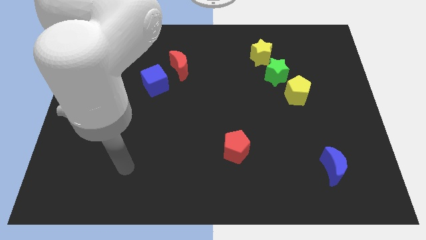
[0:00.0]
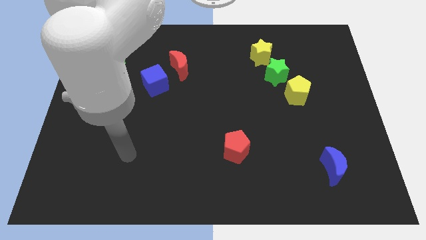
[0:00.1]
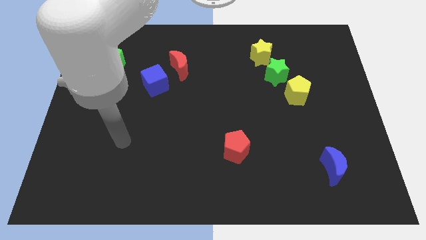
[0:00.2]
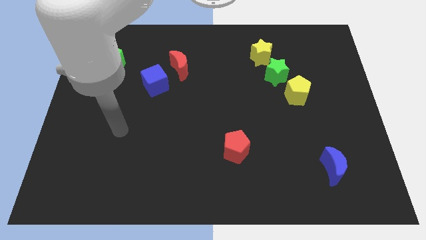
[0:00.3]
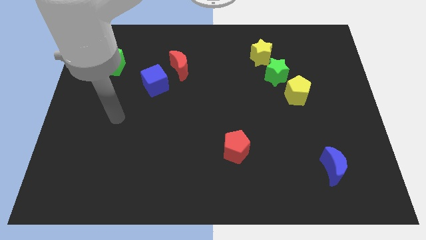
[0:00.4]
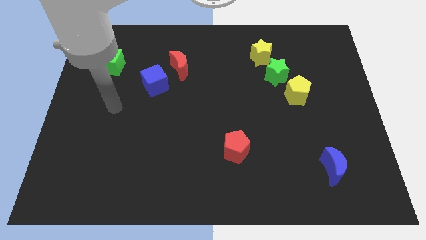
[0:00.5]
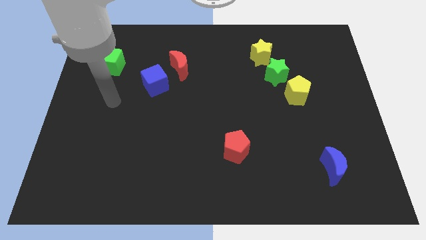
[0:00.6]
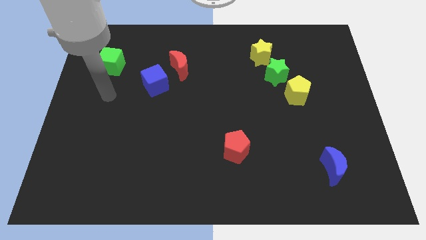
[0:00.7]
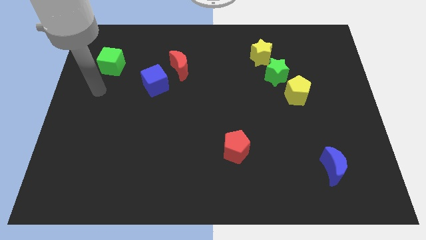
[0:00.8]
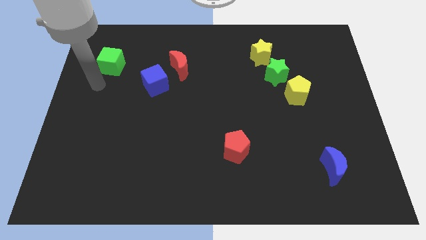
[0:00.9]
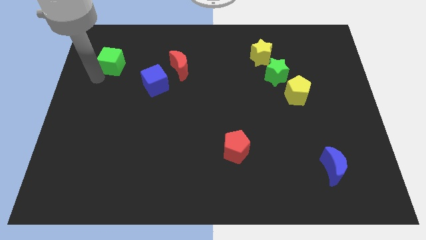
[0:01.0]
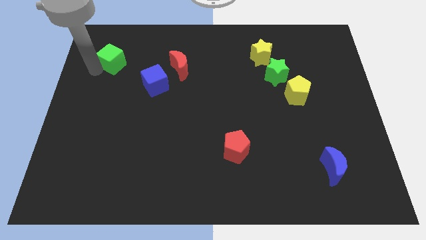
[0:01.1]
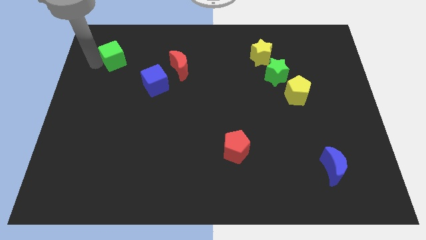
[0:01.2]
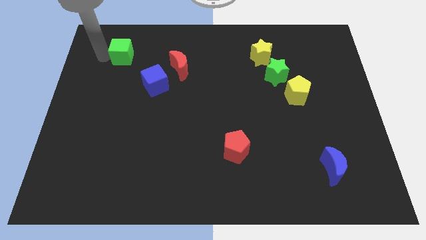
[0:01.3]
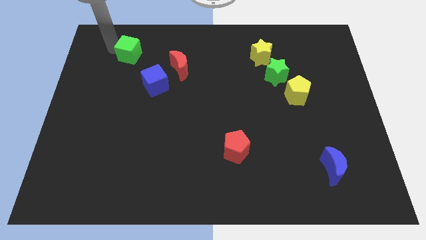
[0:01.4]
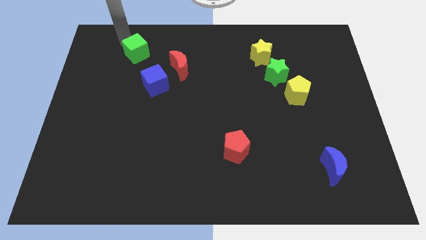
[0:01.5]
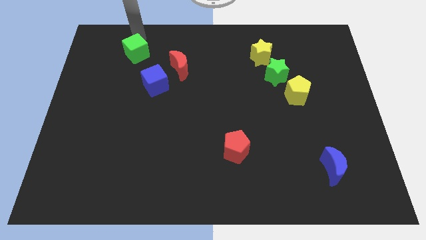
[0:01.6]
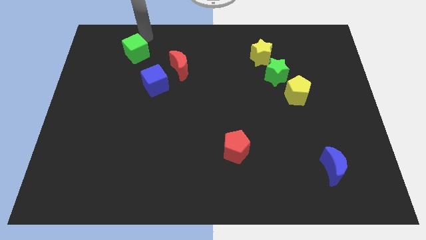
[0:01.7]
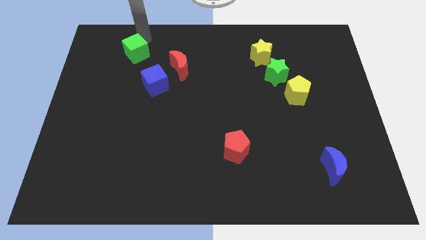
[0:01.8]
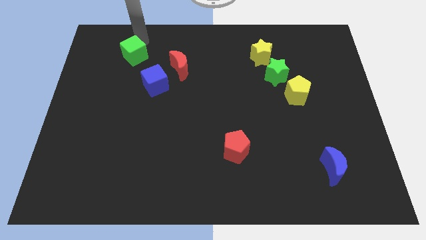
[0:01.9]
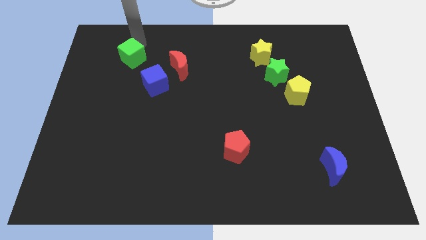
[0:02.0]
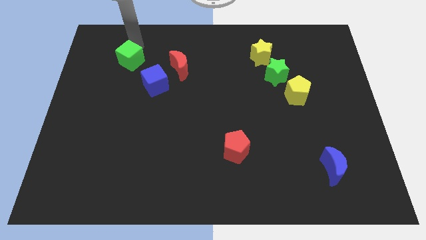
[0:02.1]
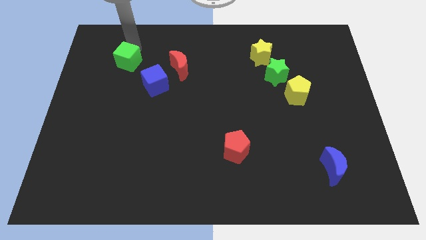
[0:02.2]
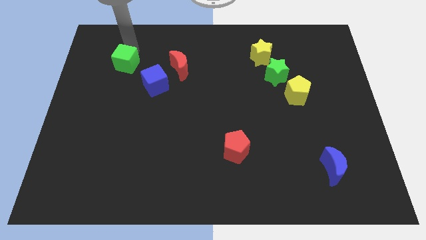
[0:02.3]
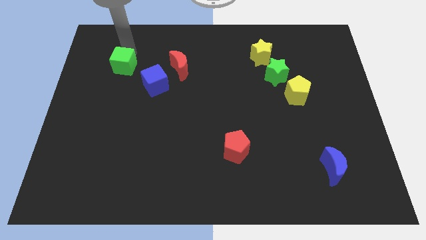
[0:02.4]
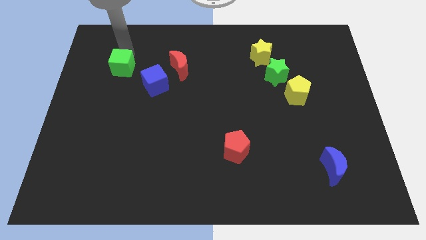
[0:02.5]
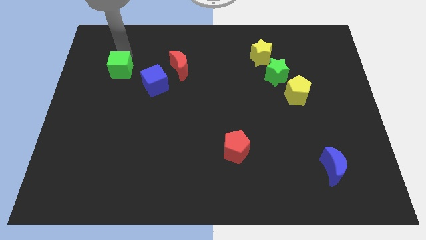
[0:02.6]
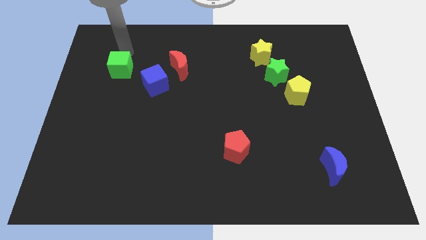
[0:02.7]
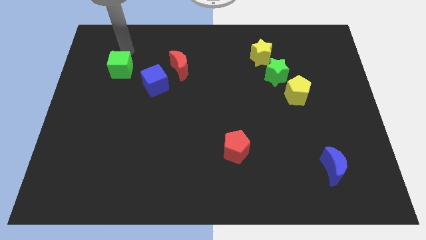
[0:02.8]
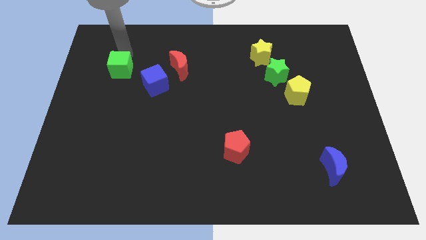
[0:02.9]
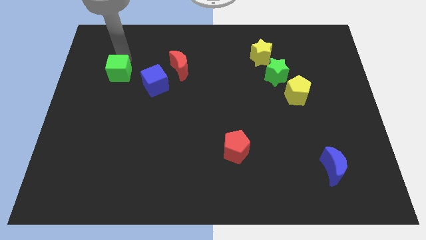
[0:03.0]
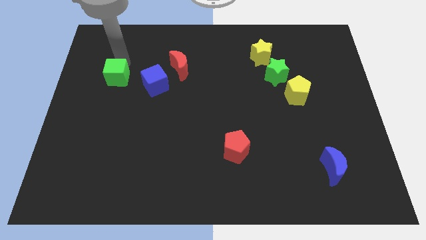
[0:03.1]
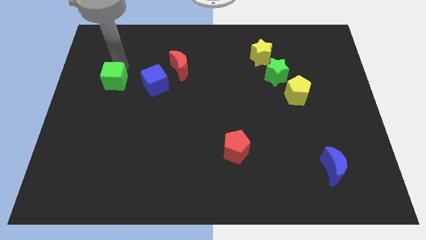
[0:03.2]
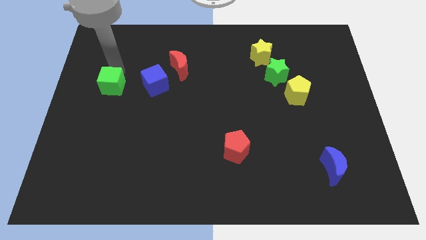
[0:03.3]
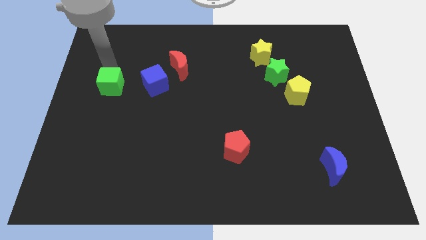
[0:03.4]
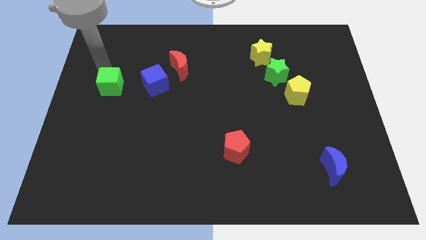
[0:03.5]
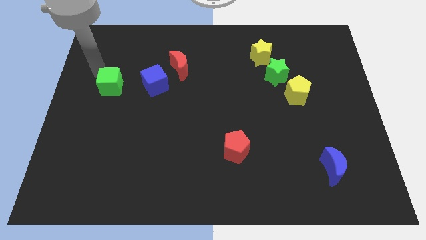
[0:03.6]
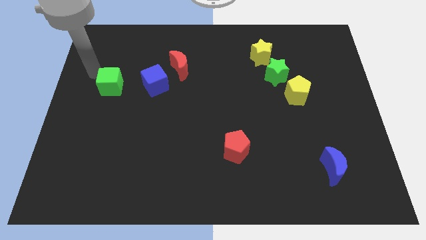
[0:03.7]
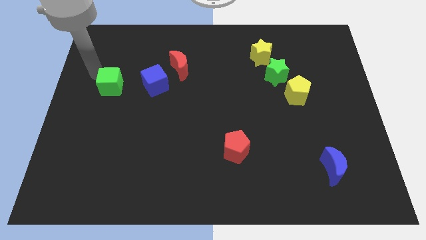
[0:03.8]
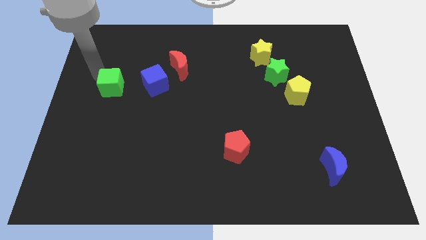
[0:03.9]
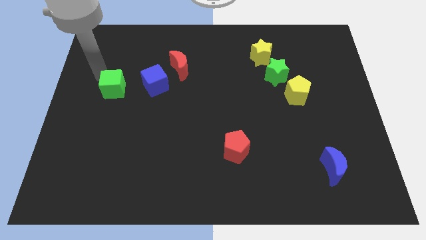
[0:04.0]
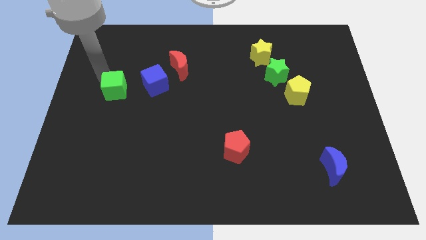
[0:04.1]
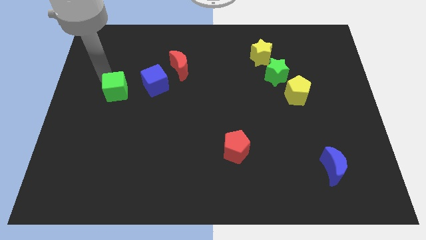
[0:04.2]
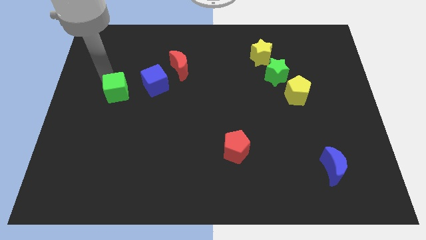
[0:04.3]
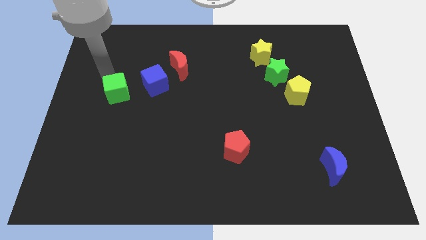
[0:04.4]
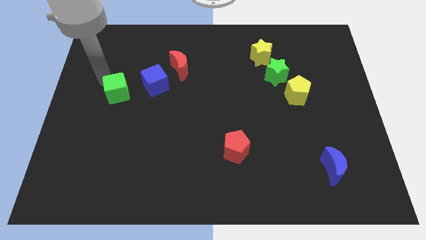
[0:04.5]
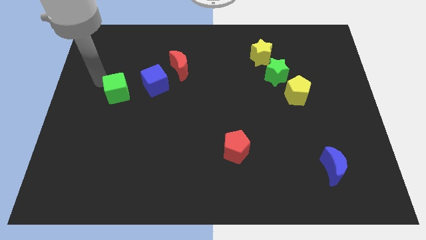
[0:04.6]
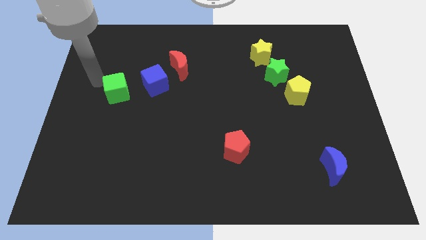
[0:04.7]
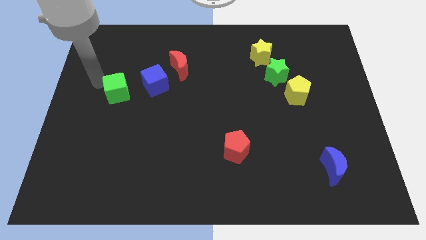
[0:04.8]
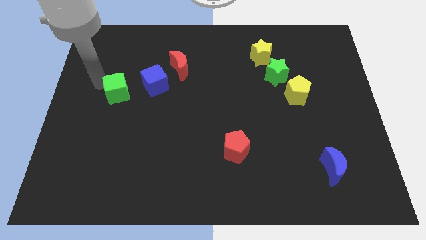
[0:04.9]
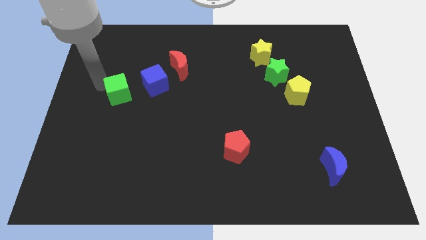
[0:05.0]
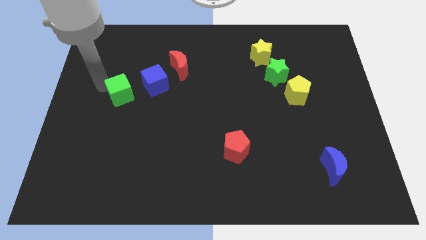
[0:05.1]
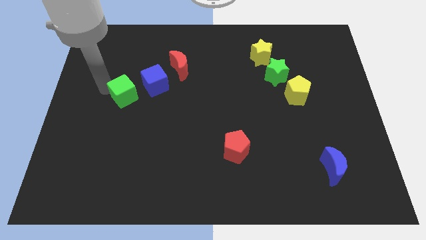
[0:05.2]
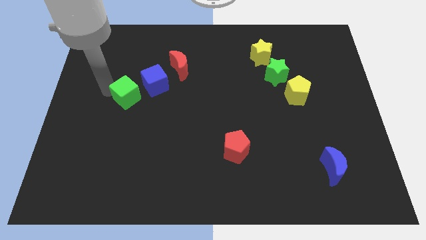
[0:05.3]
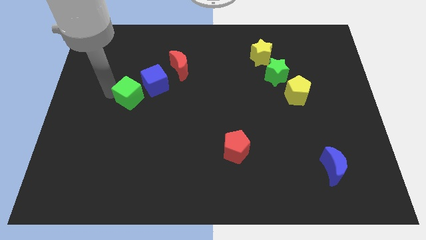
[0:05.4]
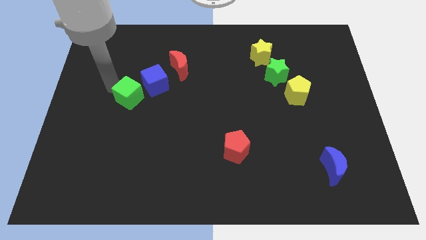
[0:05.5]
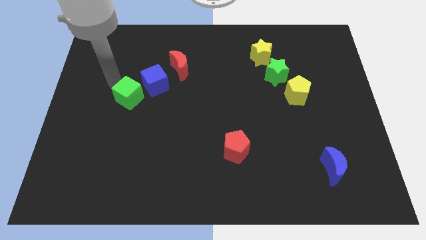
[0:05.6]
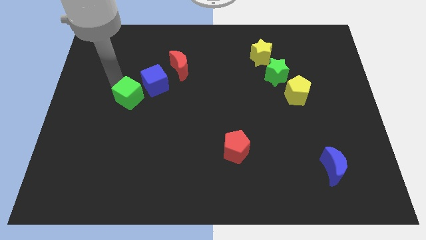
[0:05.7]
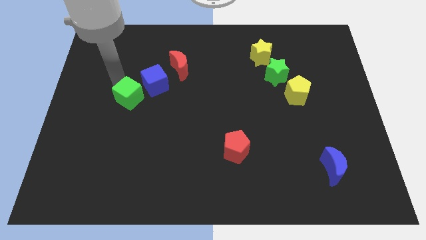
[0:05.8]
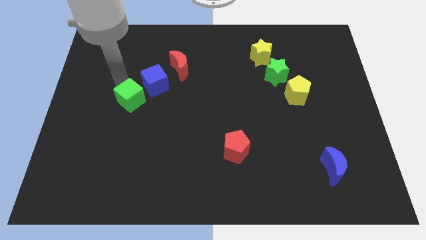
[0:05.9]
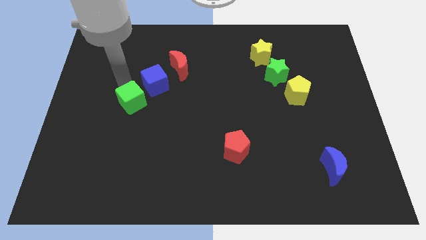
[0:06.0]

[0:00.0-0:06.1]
move the green cube below the blue cube

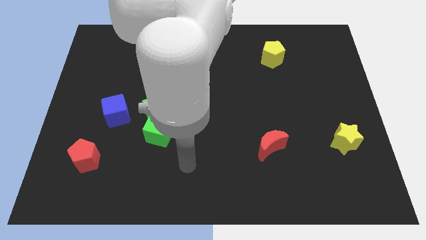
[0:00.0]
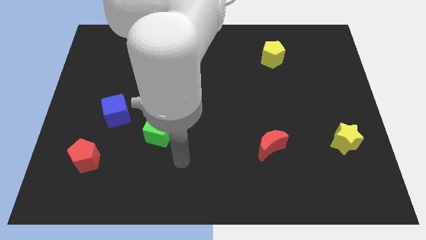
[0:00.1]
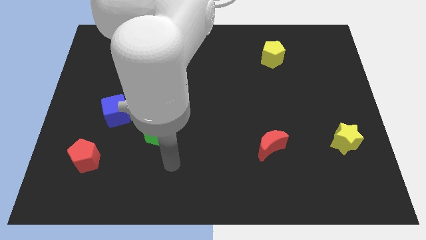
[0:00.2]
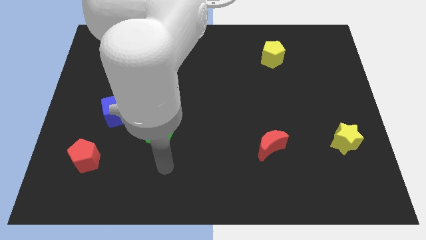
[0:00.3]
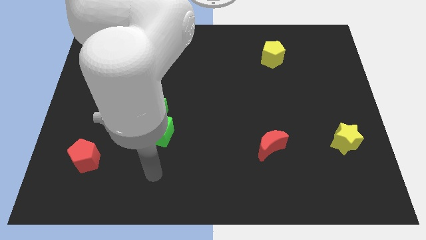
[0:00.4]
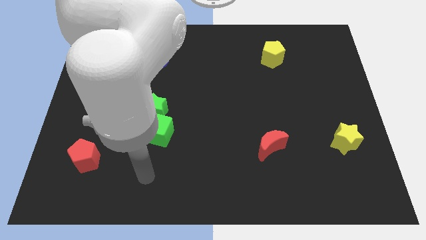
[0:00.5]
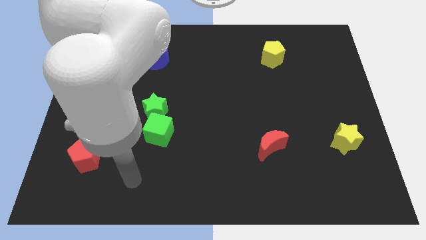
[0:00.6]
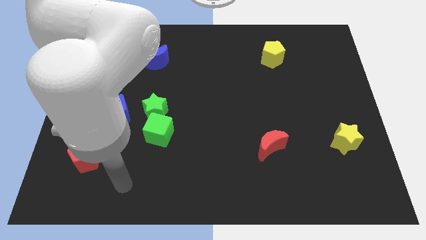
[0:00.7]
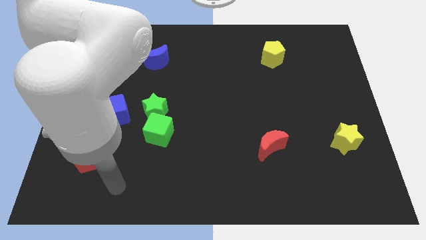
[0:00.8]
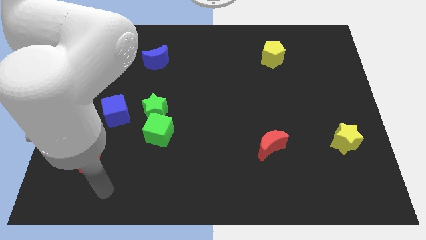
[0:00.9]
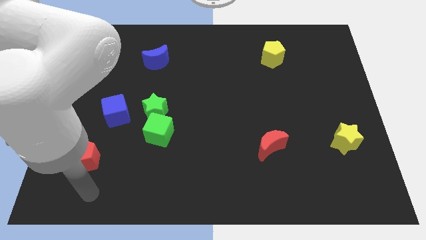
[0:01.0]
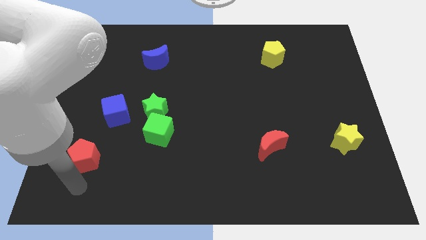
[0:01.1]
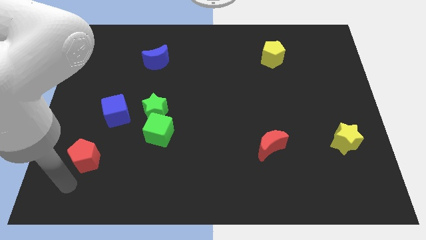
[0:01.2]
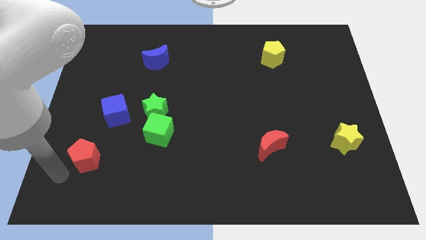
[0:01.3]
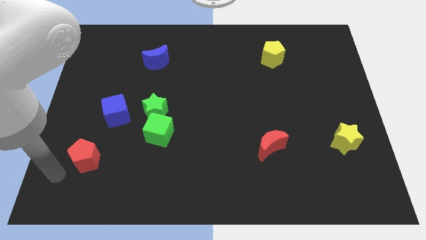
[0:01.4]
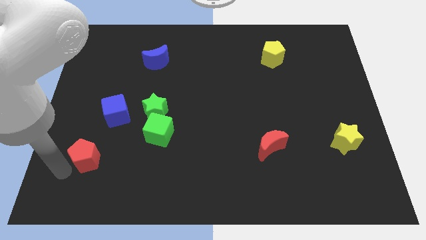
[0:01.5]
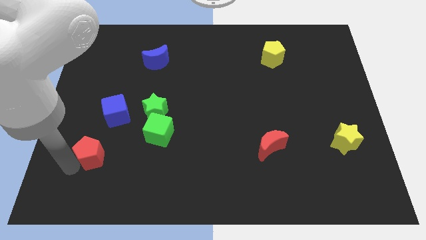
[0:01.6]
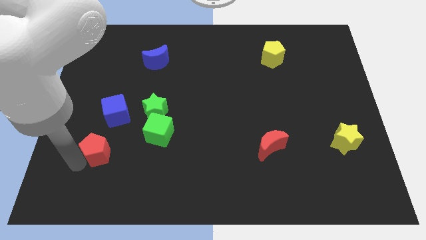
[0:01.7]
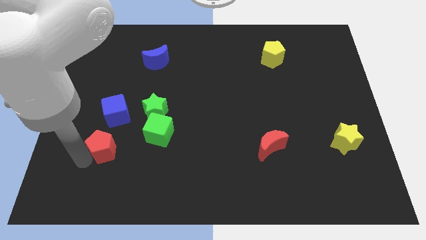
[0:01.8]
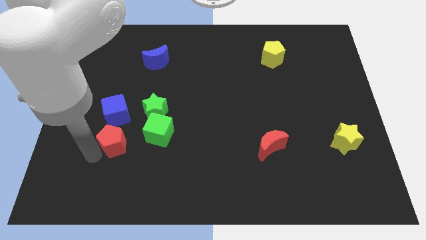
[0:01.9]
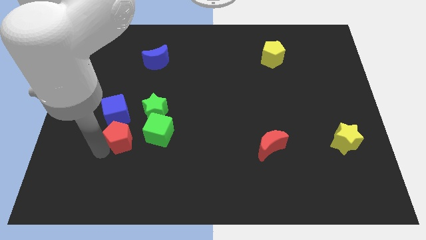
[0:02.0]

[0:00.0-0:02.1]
push the red pentagon to the bottom right of the blue cube
